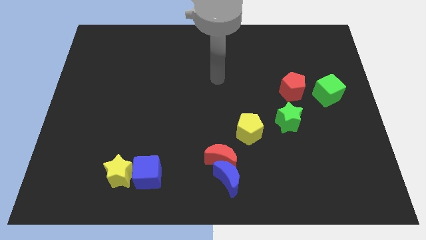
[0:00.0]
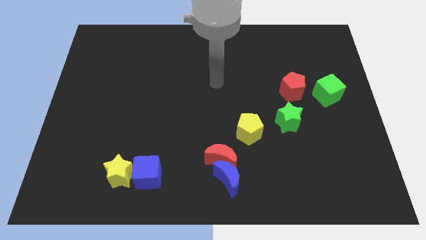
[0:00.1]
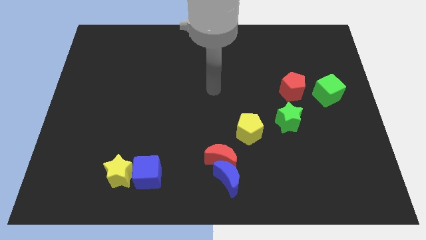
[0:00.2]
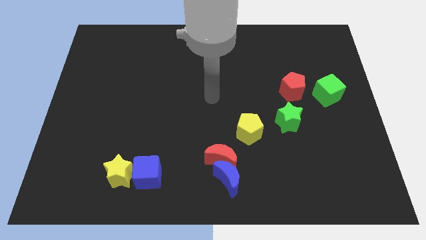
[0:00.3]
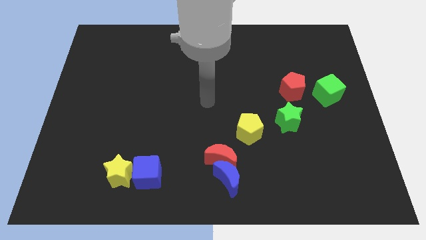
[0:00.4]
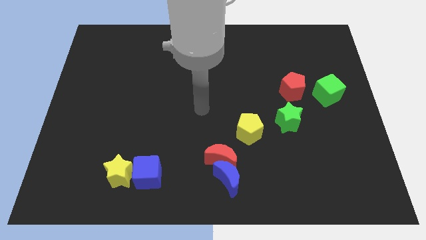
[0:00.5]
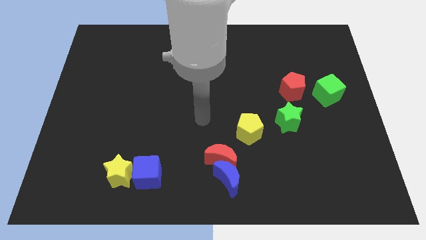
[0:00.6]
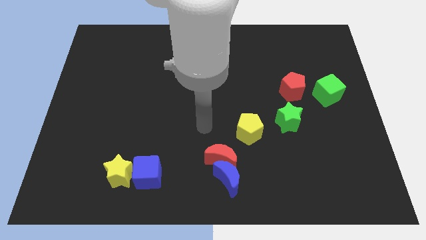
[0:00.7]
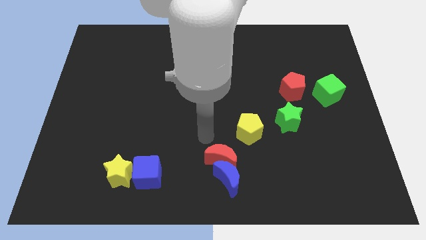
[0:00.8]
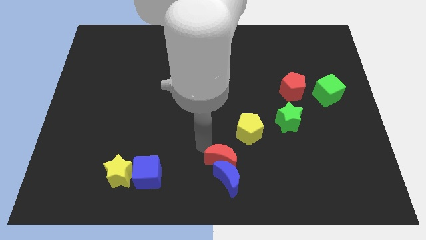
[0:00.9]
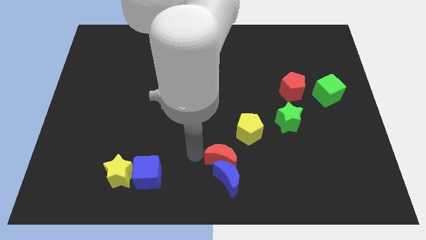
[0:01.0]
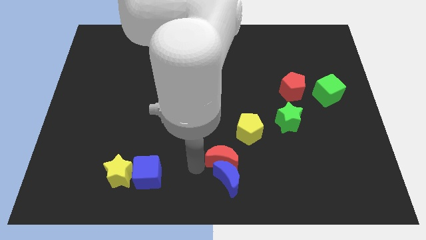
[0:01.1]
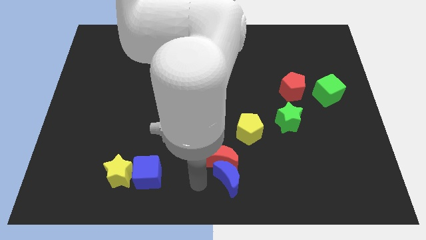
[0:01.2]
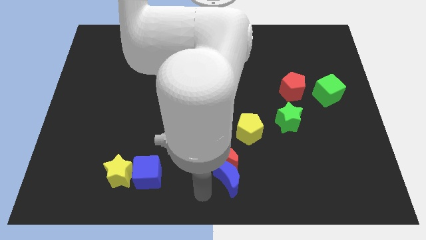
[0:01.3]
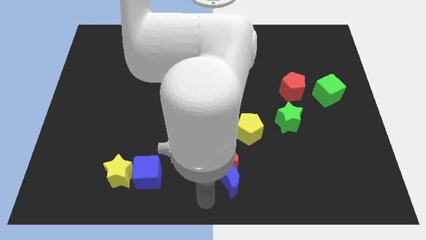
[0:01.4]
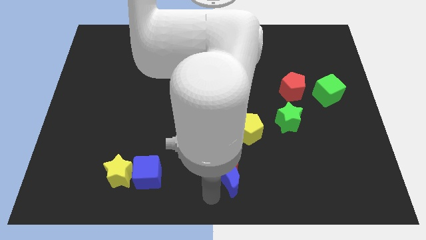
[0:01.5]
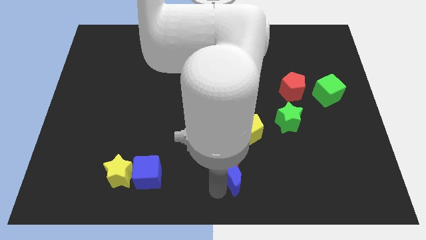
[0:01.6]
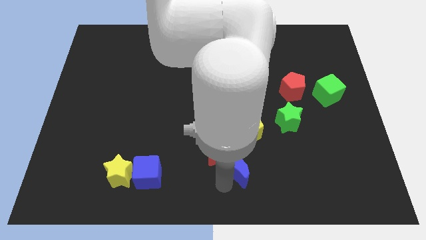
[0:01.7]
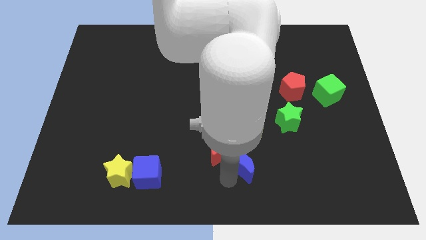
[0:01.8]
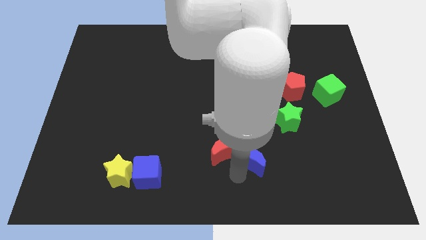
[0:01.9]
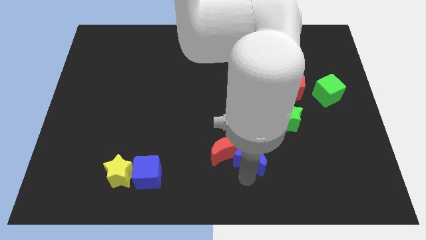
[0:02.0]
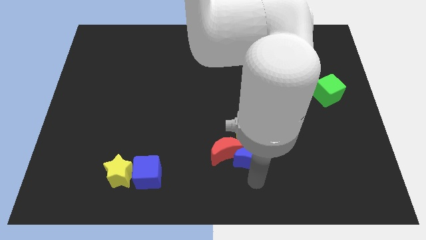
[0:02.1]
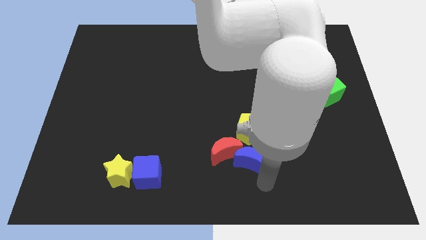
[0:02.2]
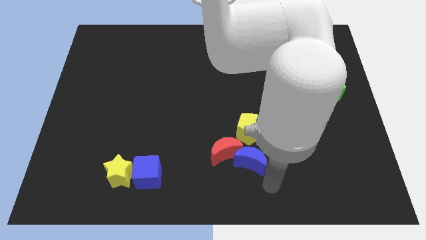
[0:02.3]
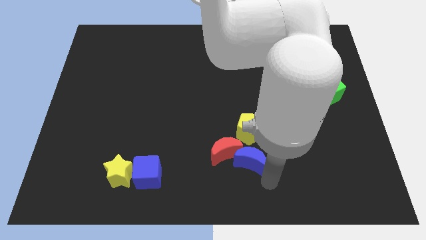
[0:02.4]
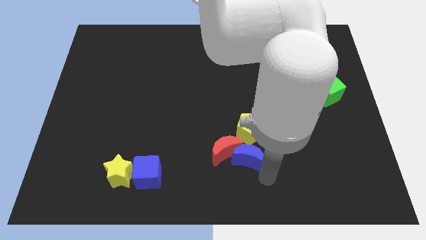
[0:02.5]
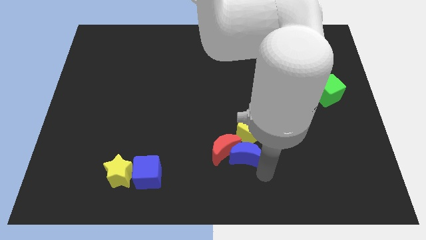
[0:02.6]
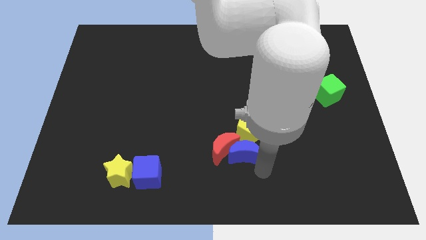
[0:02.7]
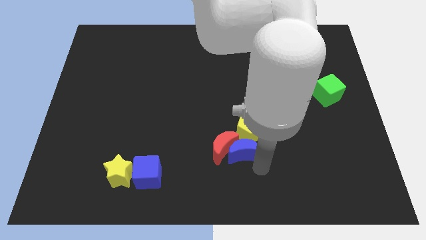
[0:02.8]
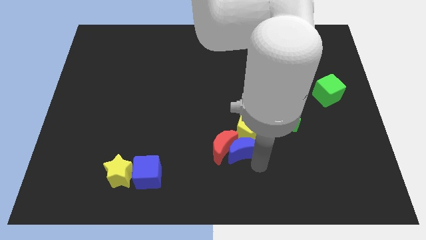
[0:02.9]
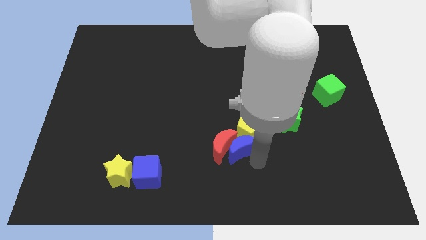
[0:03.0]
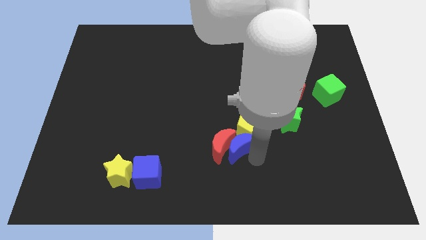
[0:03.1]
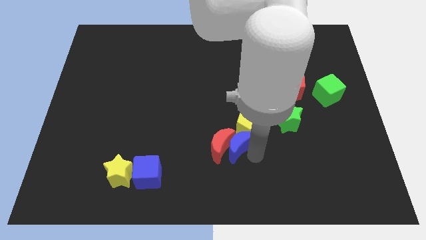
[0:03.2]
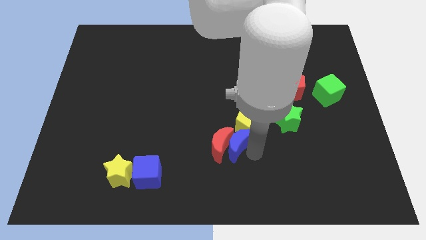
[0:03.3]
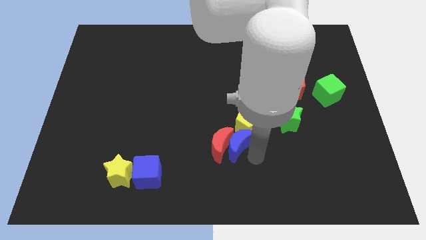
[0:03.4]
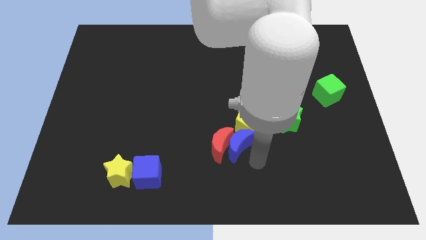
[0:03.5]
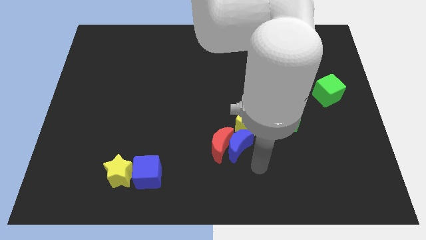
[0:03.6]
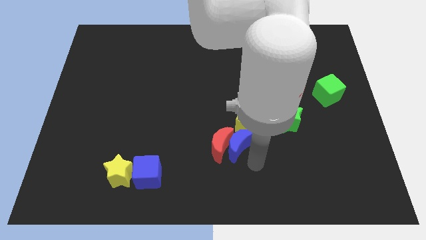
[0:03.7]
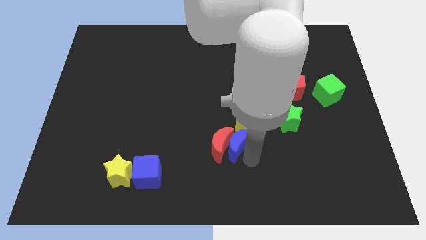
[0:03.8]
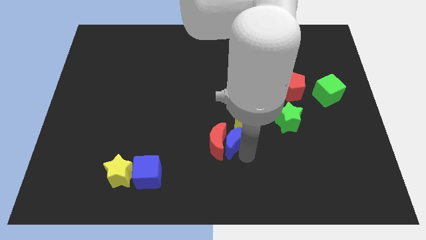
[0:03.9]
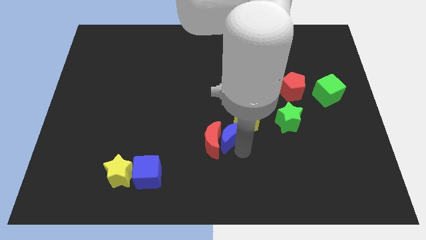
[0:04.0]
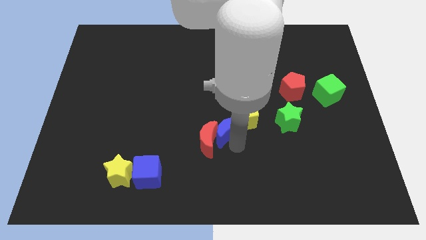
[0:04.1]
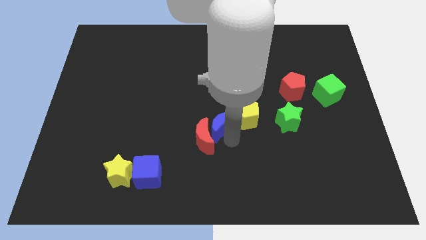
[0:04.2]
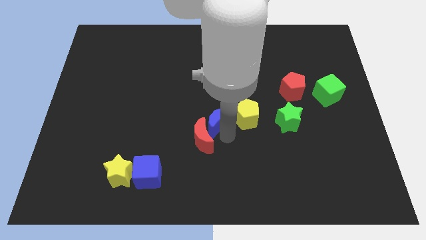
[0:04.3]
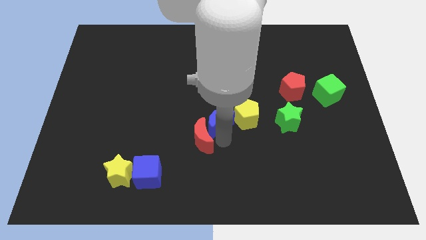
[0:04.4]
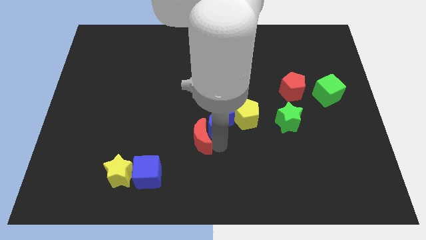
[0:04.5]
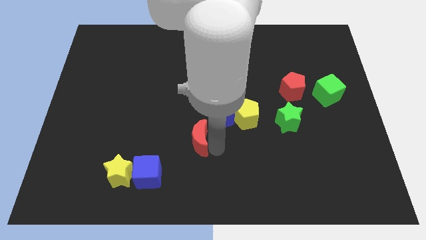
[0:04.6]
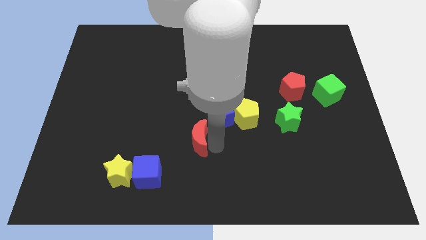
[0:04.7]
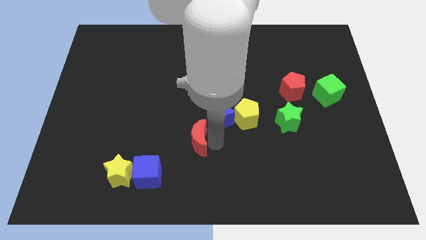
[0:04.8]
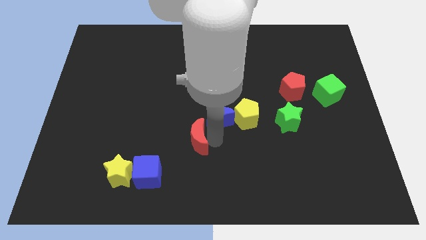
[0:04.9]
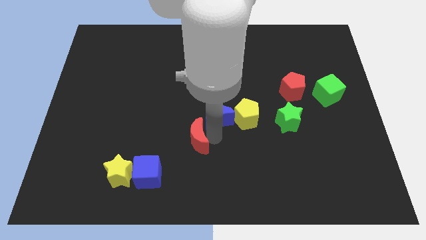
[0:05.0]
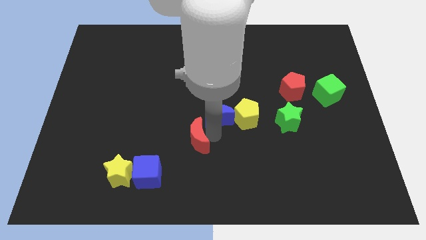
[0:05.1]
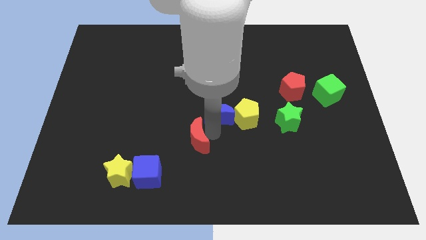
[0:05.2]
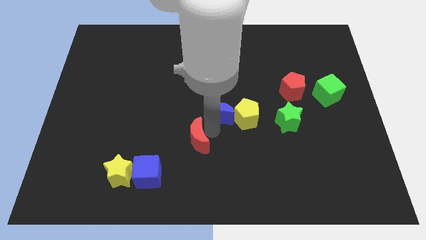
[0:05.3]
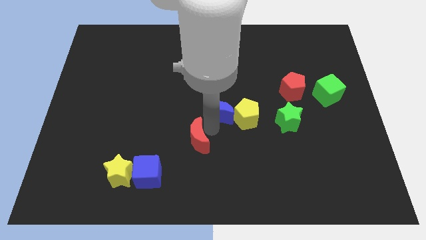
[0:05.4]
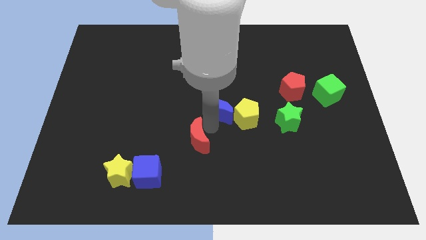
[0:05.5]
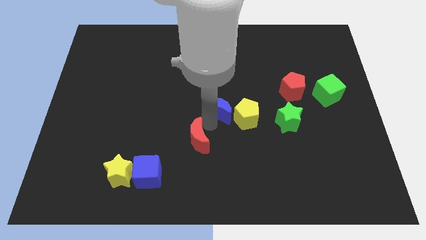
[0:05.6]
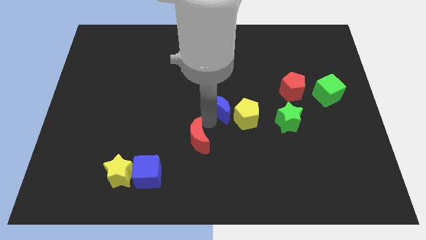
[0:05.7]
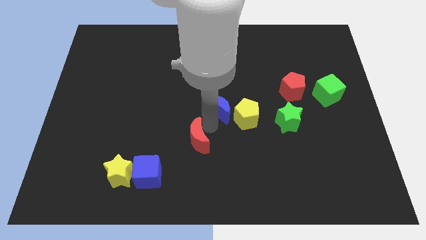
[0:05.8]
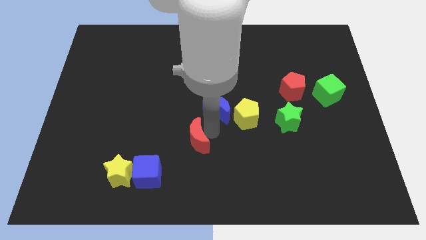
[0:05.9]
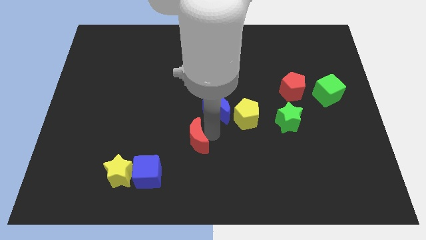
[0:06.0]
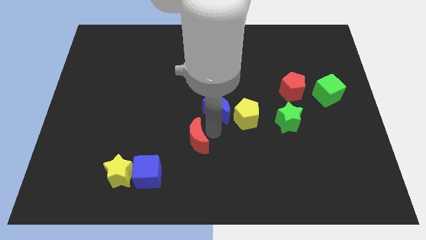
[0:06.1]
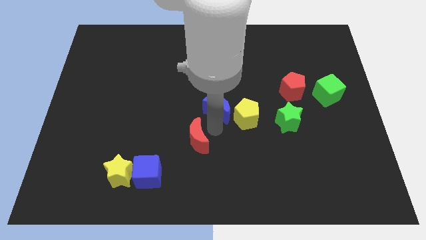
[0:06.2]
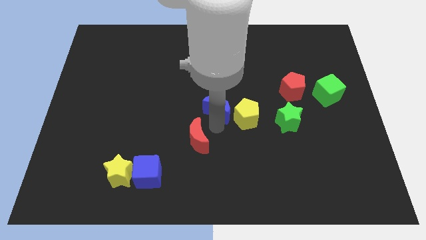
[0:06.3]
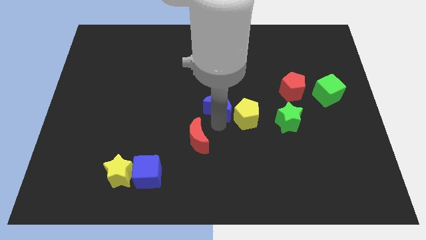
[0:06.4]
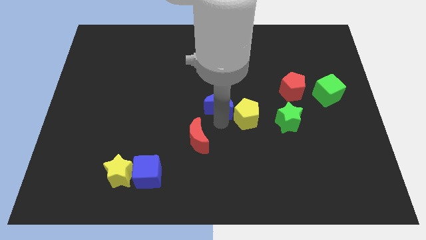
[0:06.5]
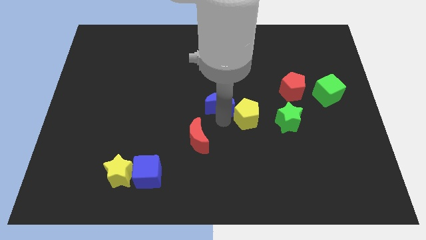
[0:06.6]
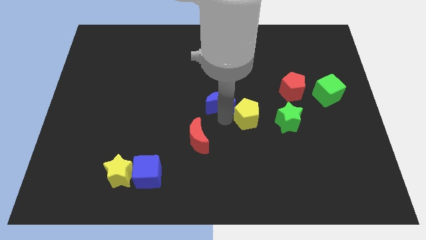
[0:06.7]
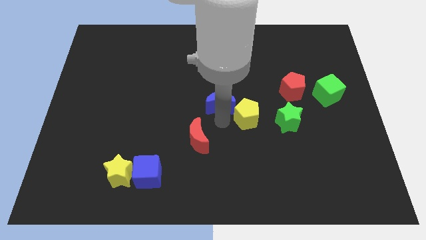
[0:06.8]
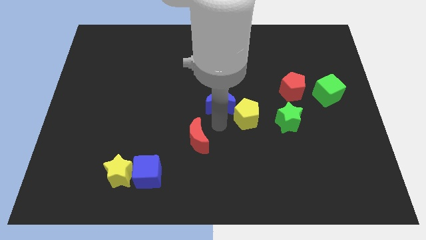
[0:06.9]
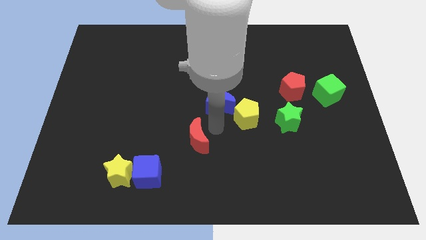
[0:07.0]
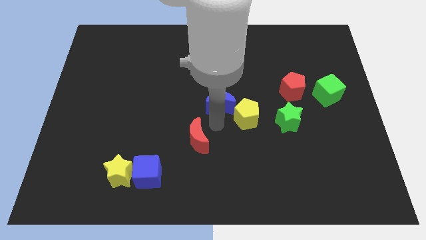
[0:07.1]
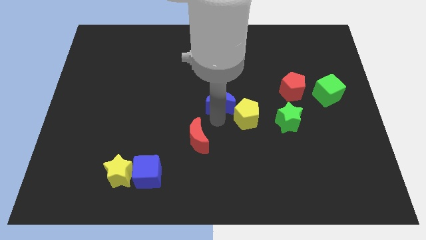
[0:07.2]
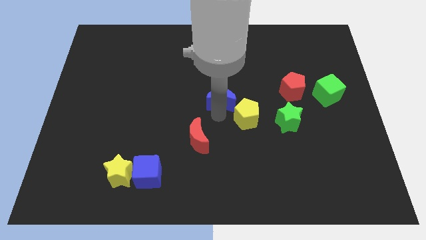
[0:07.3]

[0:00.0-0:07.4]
slide the blue moon up

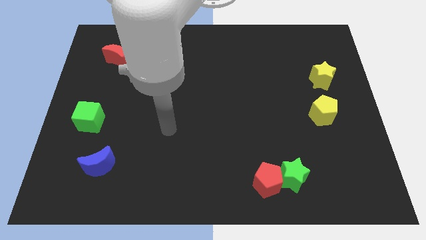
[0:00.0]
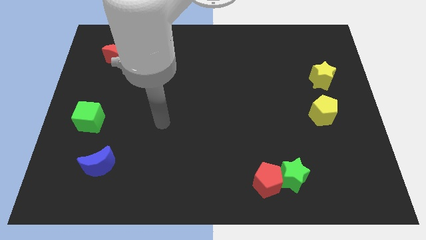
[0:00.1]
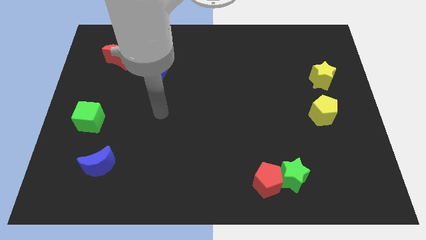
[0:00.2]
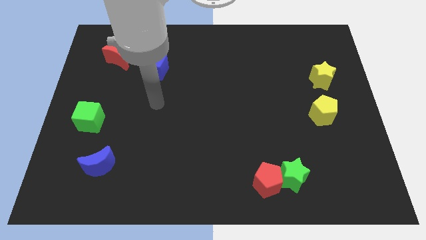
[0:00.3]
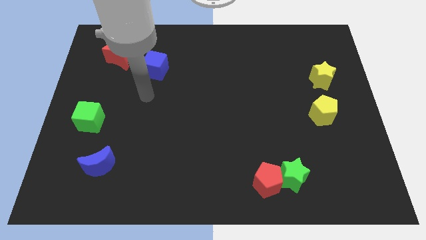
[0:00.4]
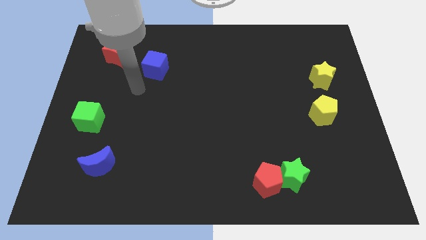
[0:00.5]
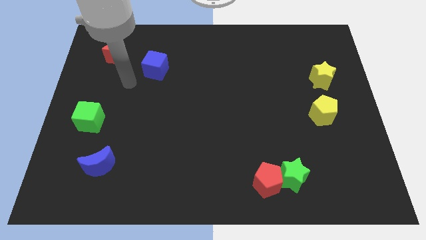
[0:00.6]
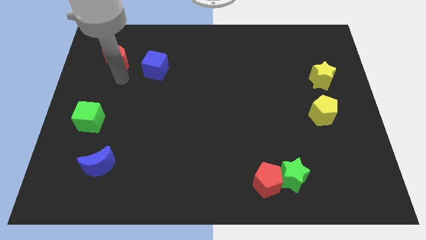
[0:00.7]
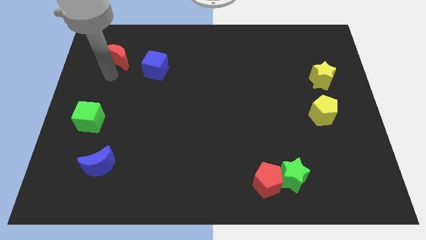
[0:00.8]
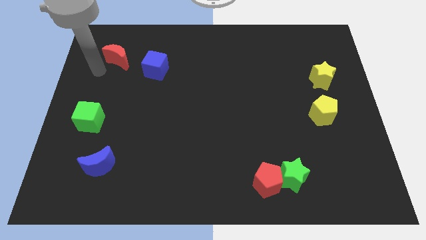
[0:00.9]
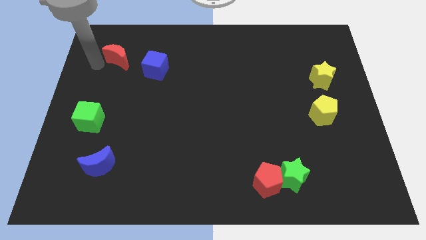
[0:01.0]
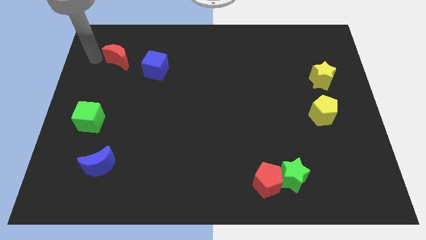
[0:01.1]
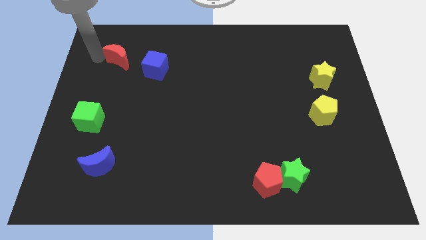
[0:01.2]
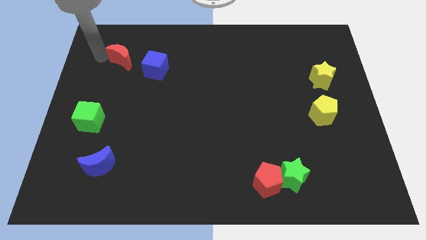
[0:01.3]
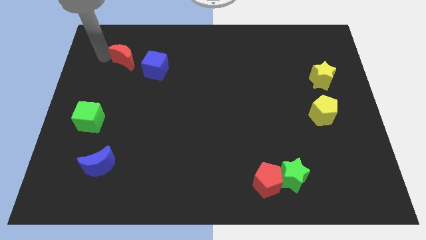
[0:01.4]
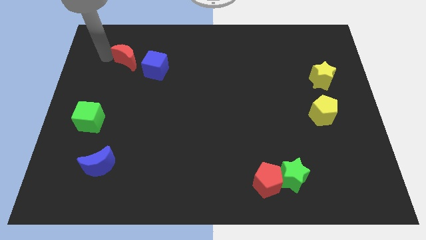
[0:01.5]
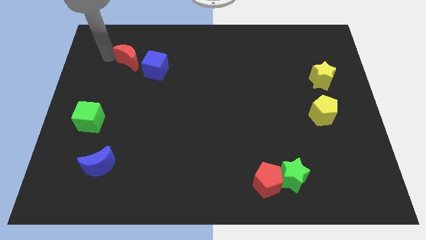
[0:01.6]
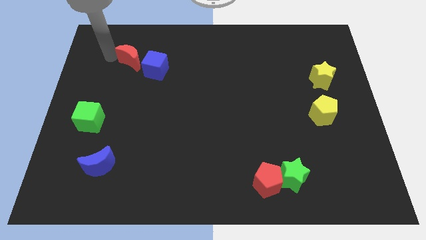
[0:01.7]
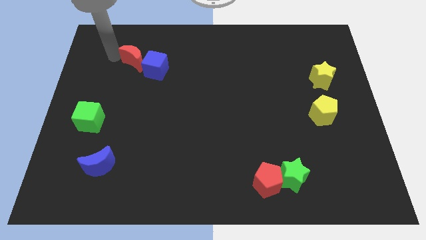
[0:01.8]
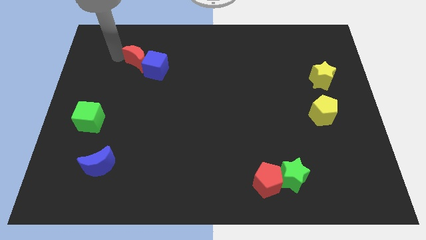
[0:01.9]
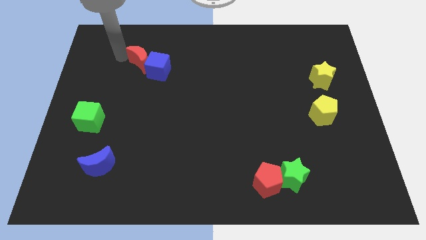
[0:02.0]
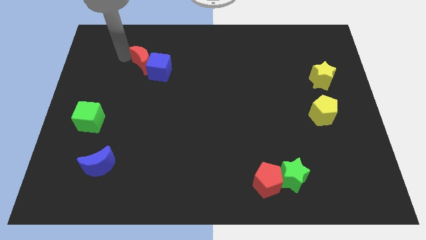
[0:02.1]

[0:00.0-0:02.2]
slightly move the red moon to the right
